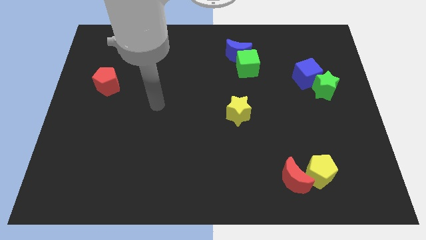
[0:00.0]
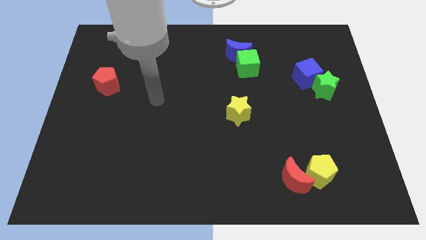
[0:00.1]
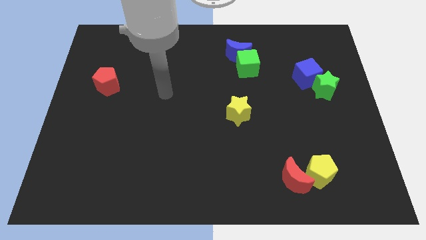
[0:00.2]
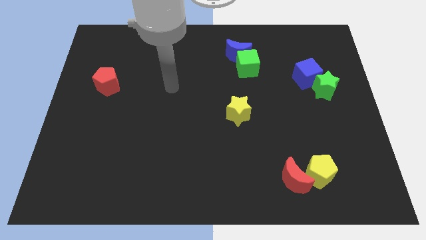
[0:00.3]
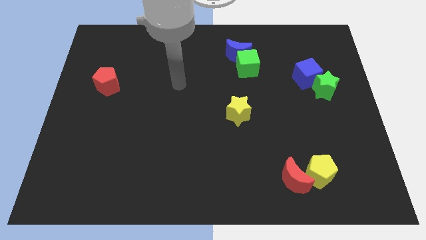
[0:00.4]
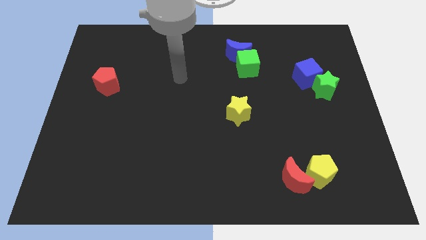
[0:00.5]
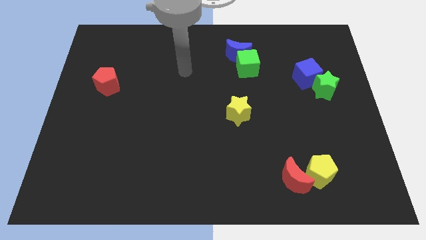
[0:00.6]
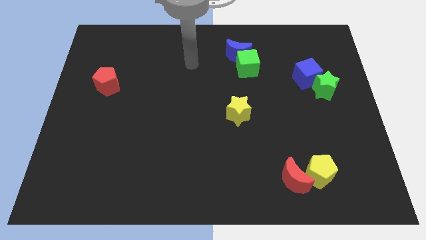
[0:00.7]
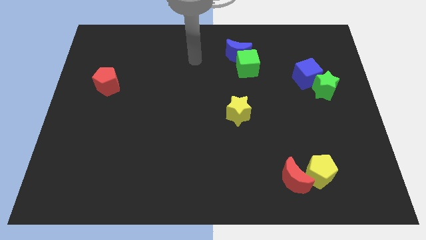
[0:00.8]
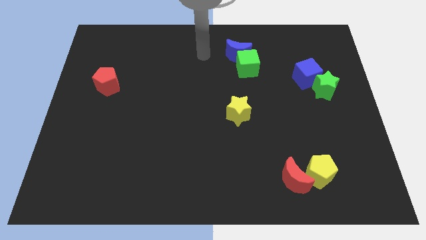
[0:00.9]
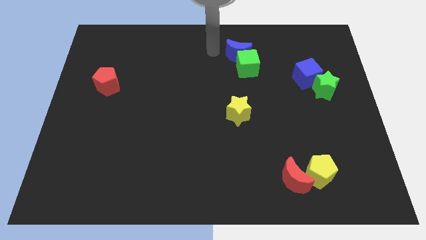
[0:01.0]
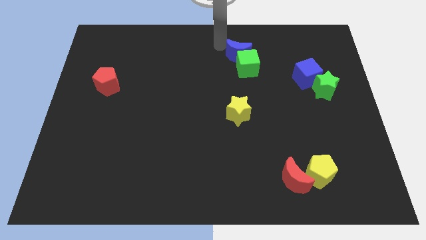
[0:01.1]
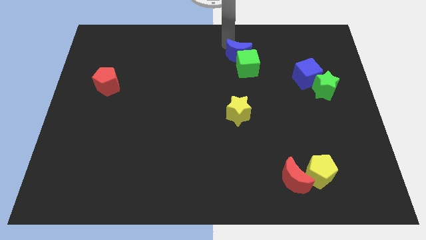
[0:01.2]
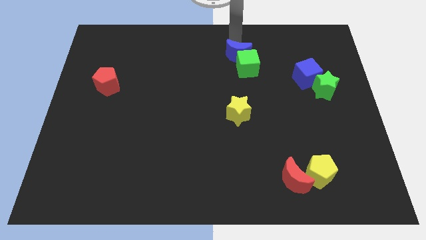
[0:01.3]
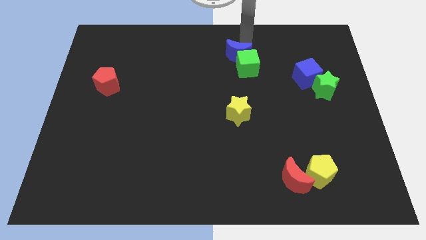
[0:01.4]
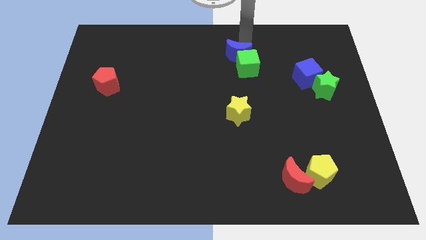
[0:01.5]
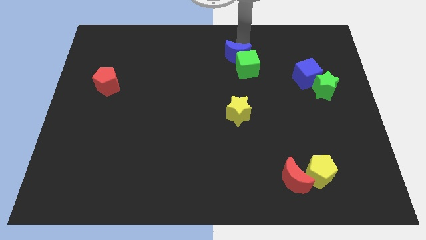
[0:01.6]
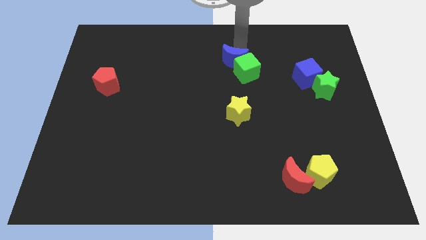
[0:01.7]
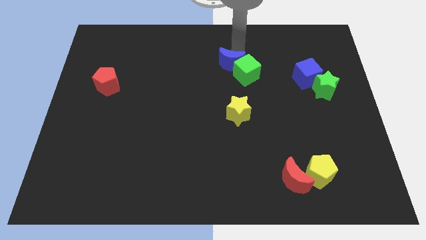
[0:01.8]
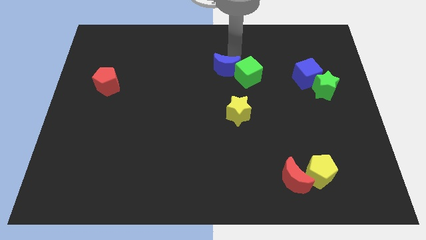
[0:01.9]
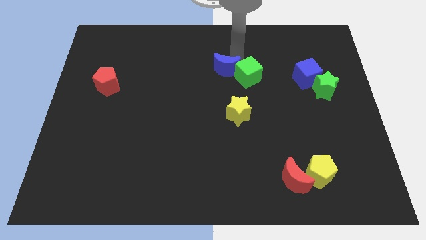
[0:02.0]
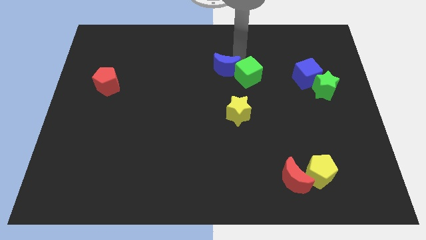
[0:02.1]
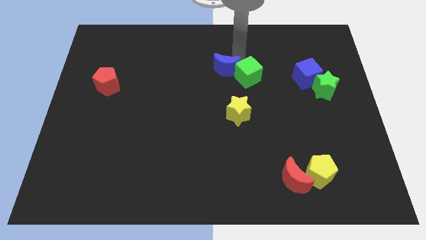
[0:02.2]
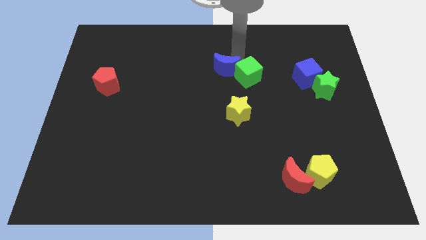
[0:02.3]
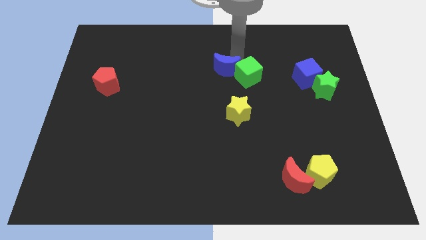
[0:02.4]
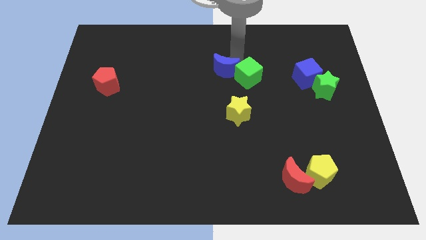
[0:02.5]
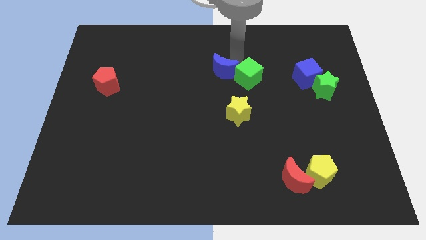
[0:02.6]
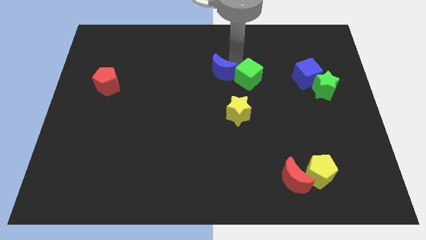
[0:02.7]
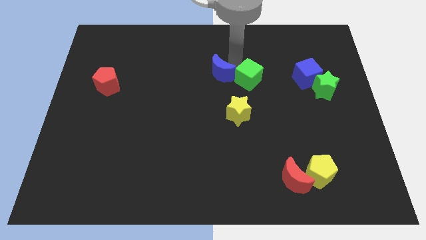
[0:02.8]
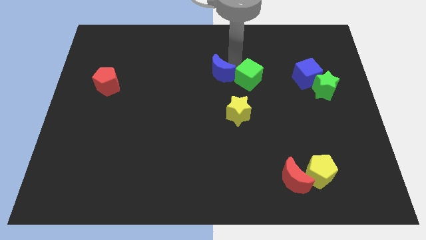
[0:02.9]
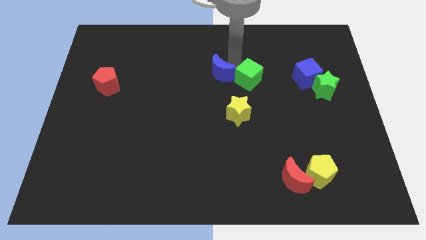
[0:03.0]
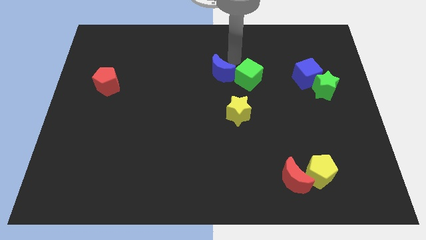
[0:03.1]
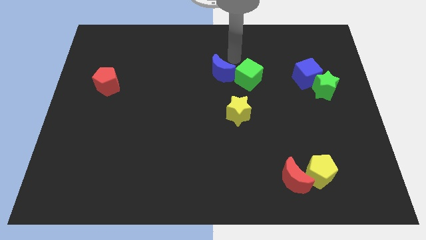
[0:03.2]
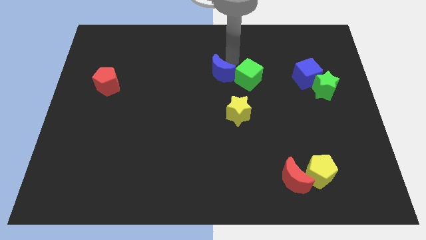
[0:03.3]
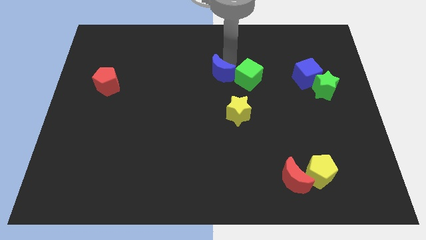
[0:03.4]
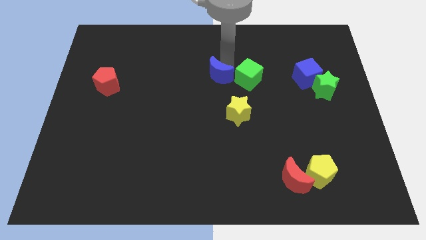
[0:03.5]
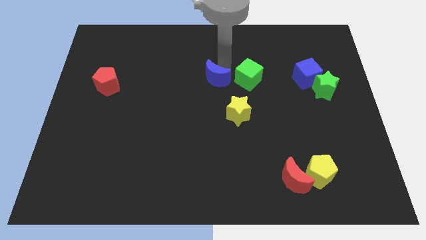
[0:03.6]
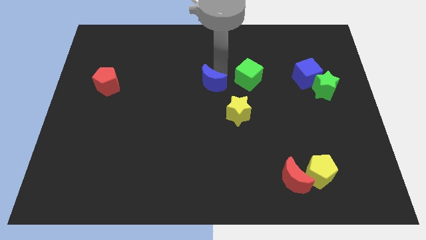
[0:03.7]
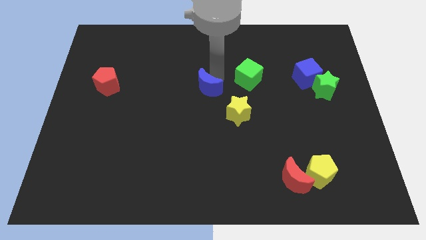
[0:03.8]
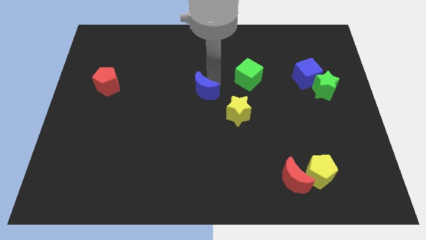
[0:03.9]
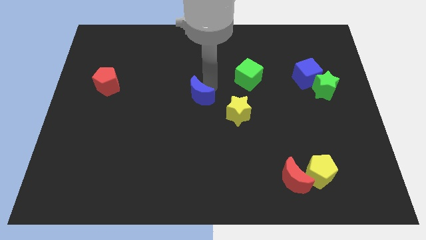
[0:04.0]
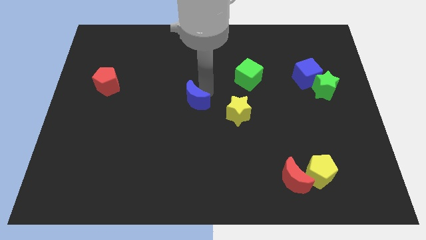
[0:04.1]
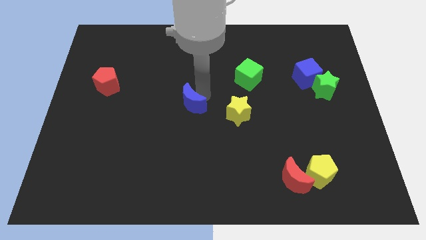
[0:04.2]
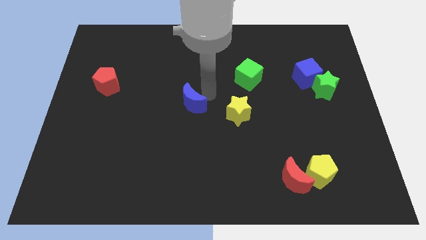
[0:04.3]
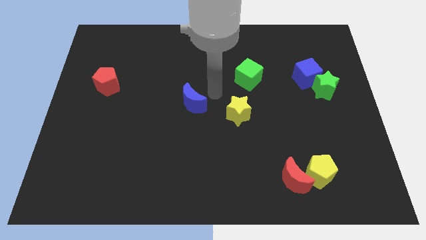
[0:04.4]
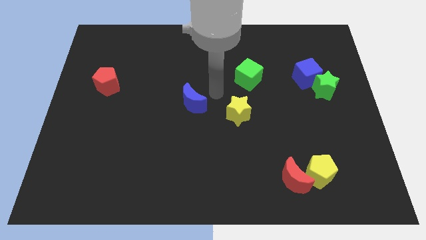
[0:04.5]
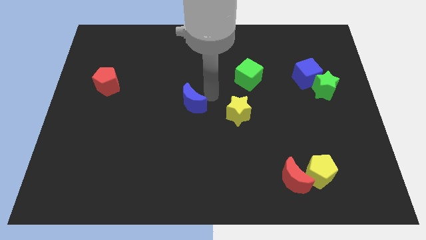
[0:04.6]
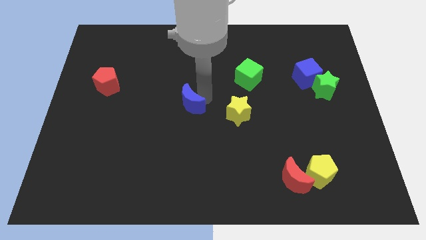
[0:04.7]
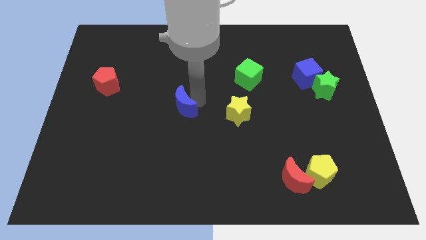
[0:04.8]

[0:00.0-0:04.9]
move the blue moon down and left

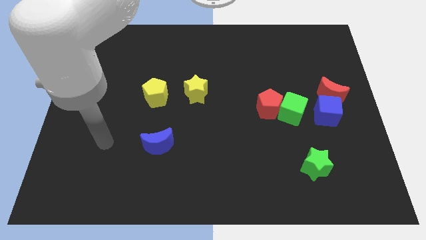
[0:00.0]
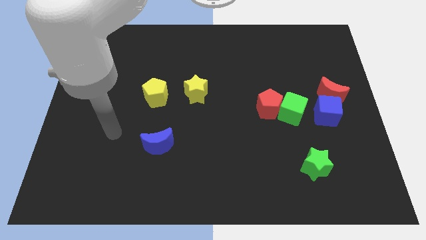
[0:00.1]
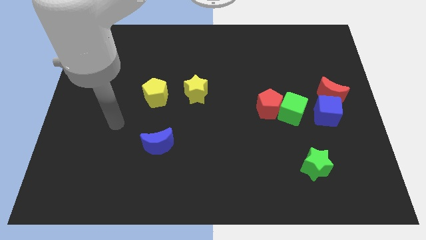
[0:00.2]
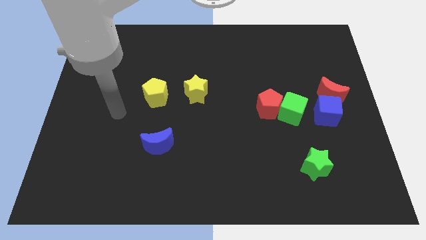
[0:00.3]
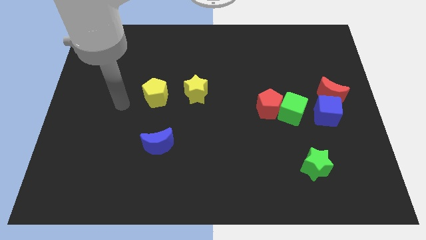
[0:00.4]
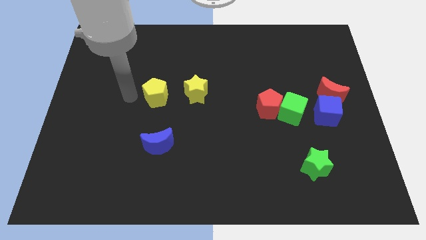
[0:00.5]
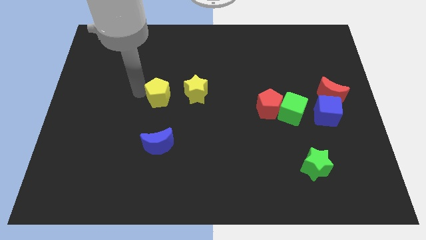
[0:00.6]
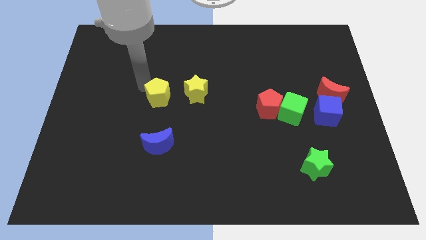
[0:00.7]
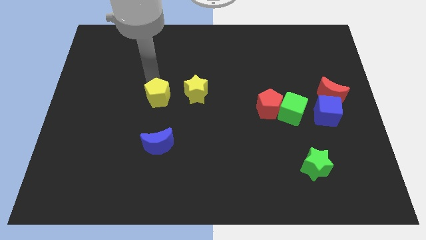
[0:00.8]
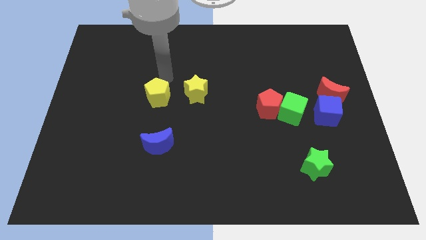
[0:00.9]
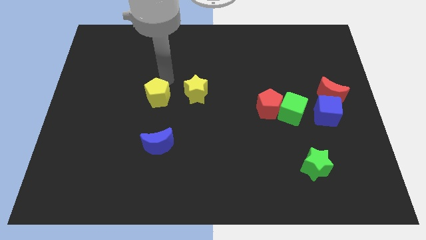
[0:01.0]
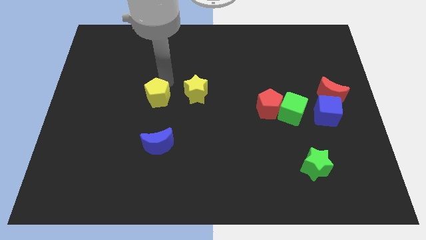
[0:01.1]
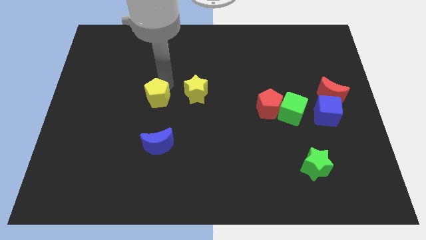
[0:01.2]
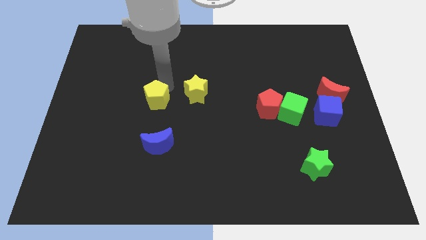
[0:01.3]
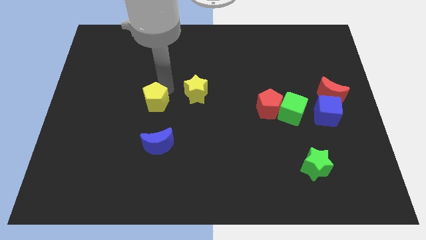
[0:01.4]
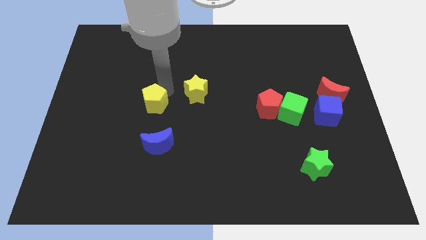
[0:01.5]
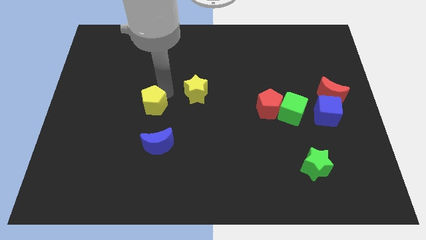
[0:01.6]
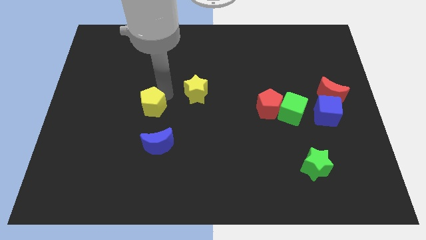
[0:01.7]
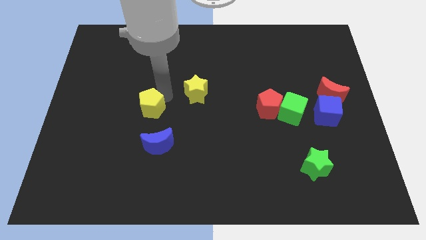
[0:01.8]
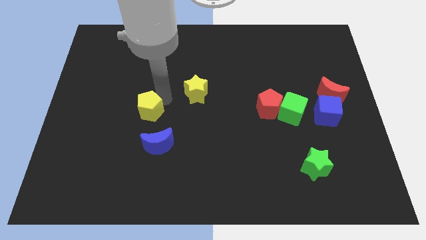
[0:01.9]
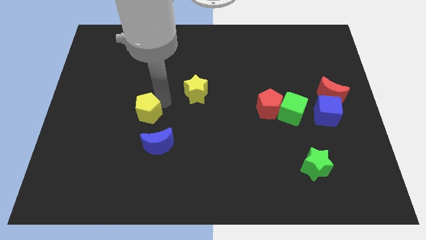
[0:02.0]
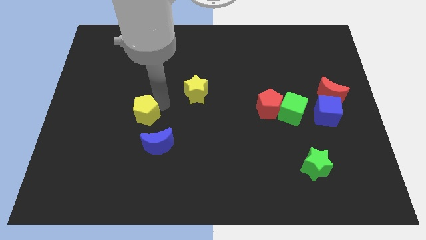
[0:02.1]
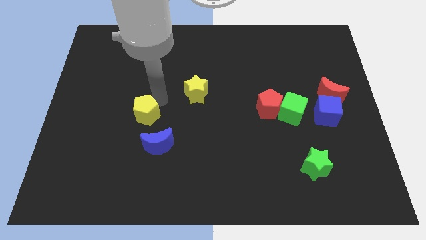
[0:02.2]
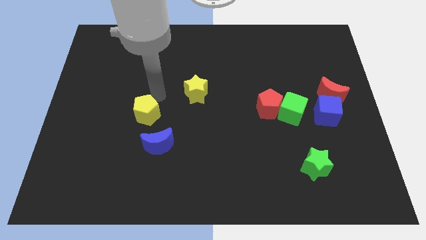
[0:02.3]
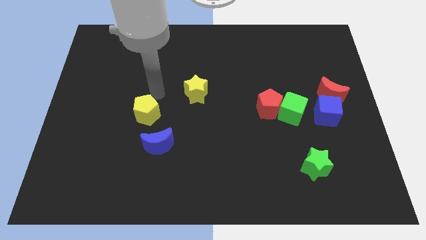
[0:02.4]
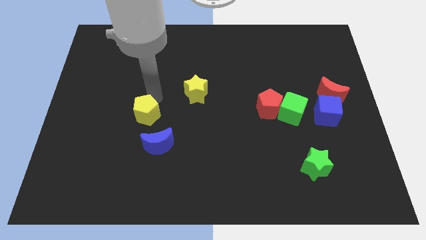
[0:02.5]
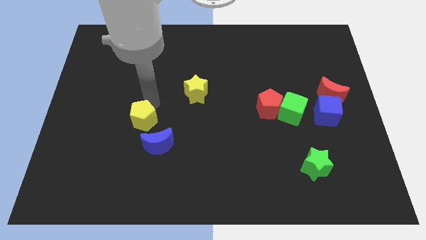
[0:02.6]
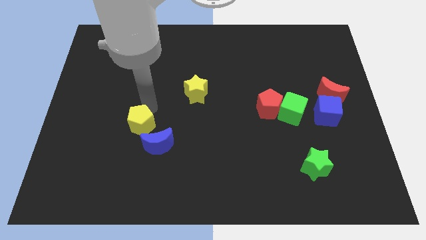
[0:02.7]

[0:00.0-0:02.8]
push the yellow pentagon down a little bit
